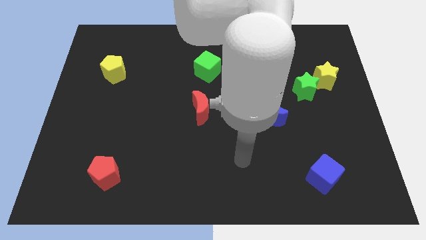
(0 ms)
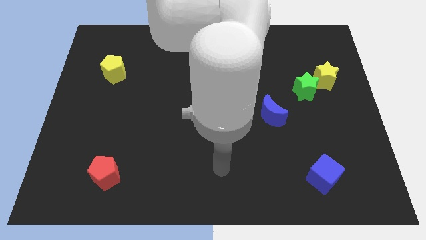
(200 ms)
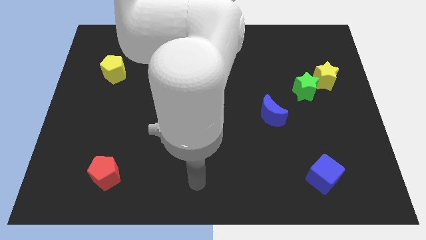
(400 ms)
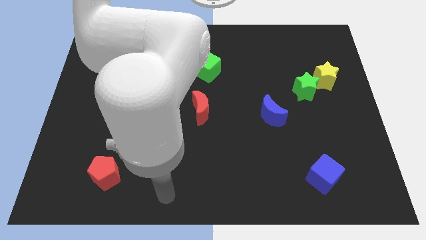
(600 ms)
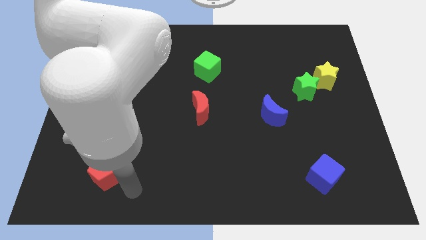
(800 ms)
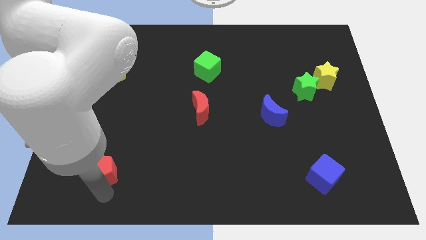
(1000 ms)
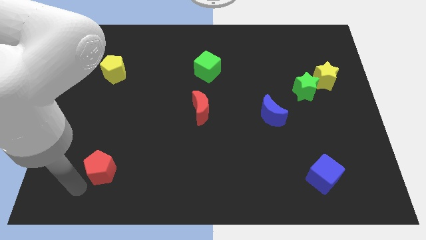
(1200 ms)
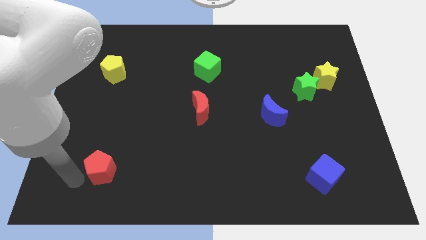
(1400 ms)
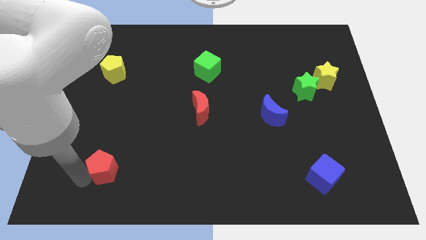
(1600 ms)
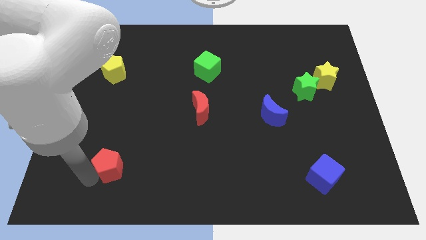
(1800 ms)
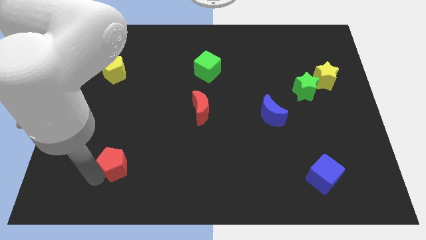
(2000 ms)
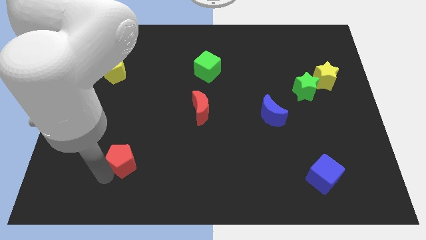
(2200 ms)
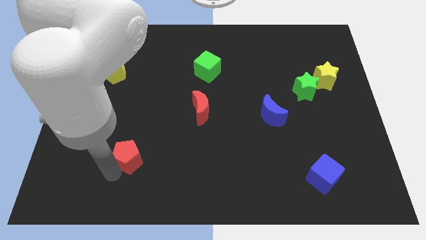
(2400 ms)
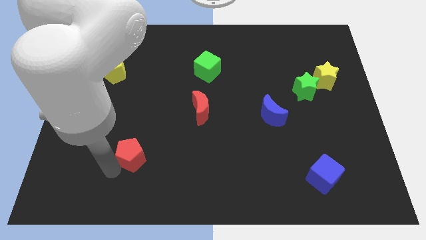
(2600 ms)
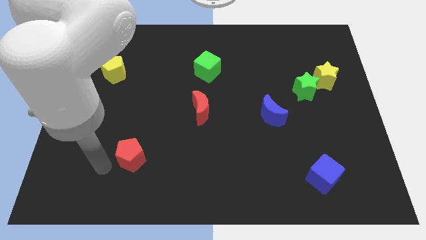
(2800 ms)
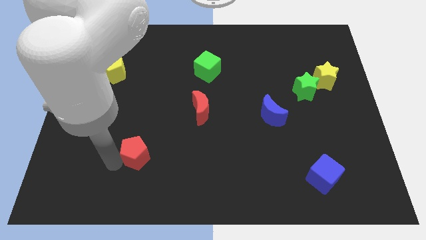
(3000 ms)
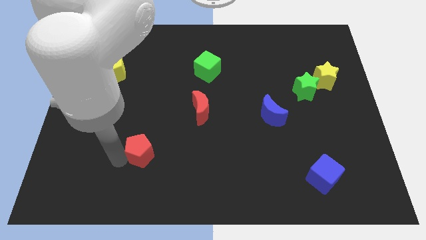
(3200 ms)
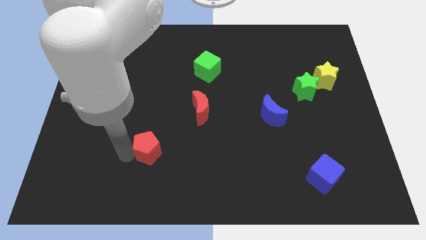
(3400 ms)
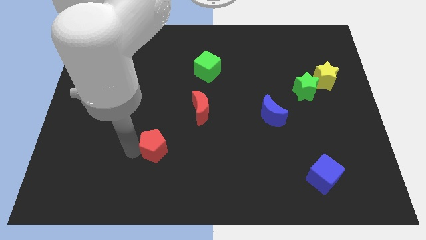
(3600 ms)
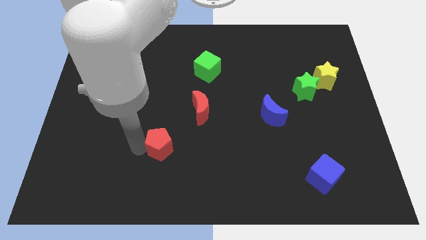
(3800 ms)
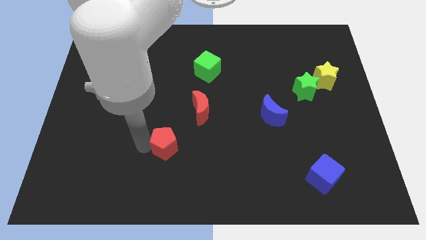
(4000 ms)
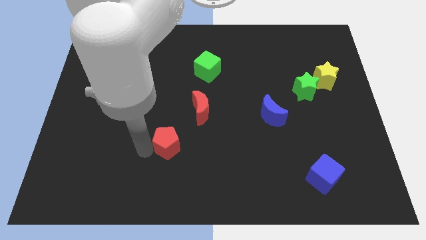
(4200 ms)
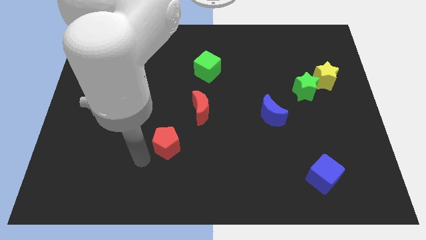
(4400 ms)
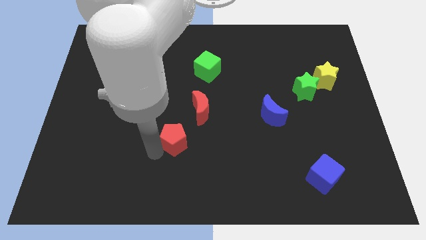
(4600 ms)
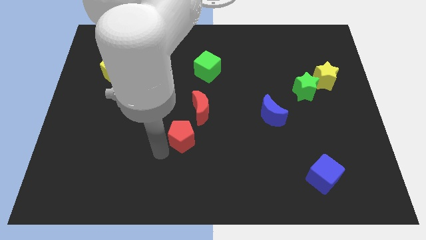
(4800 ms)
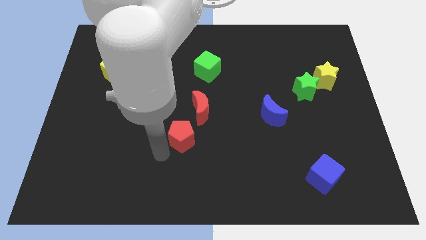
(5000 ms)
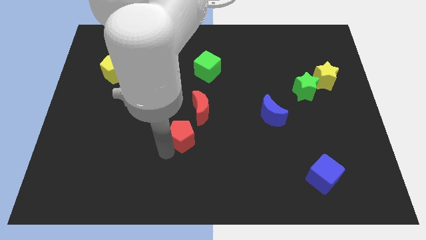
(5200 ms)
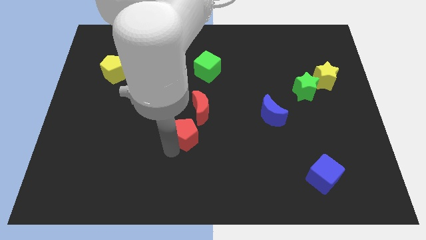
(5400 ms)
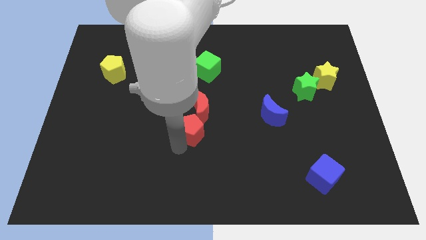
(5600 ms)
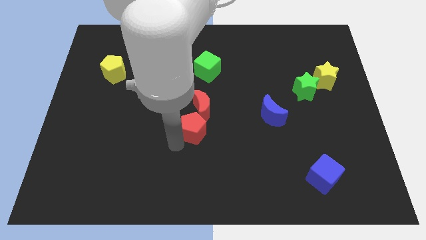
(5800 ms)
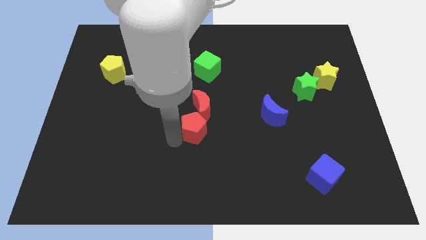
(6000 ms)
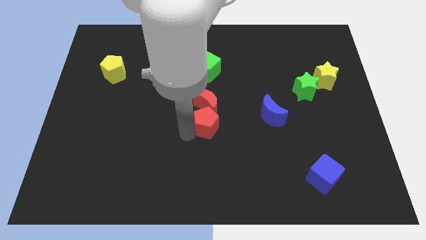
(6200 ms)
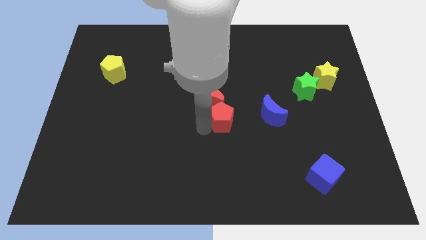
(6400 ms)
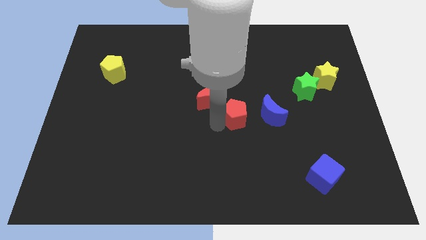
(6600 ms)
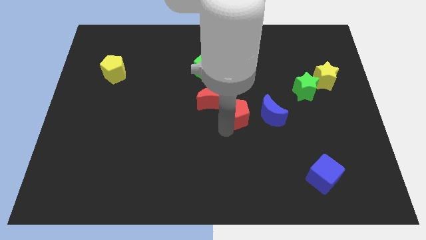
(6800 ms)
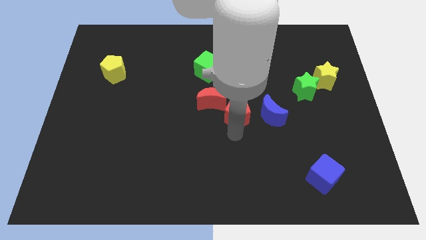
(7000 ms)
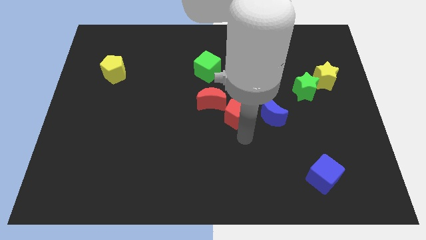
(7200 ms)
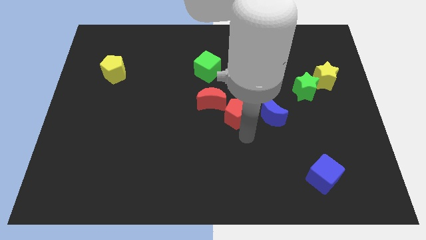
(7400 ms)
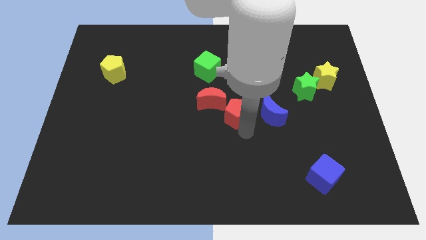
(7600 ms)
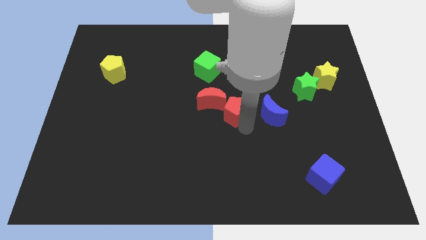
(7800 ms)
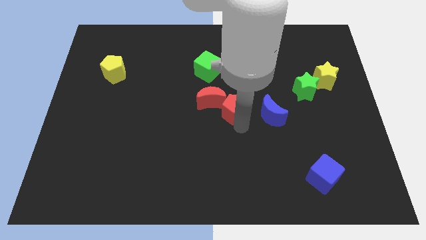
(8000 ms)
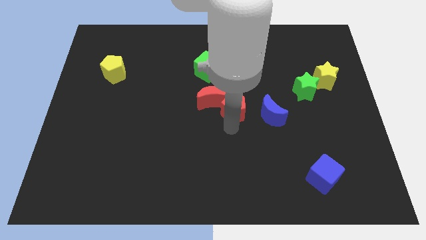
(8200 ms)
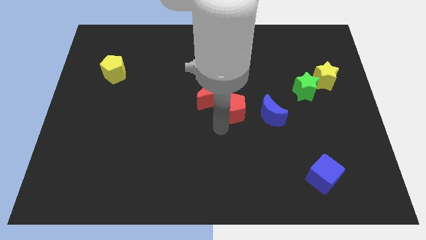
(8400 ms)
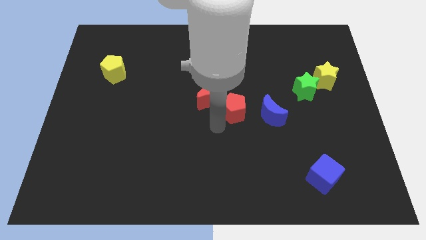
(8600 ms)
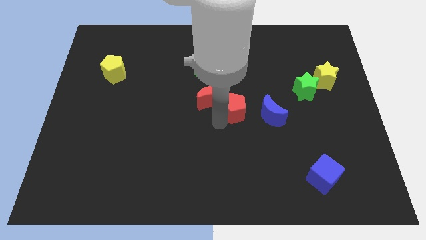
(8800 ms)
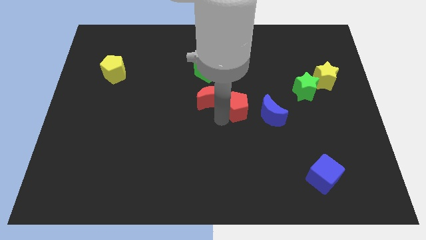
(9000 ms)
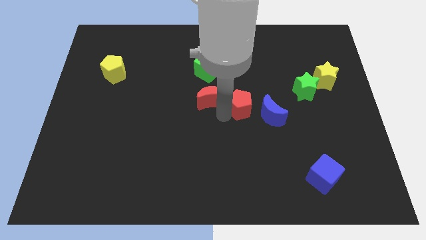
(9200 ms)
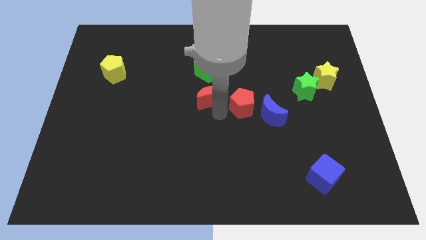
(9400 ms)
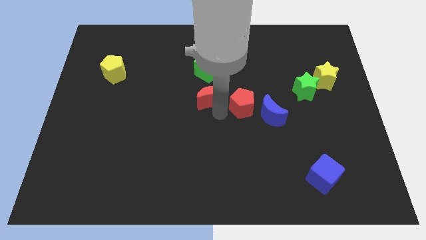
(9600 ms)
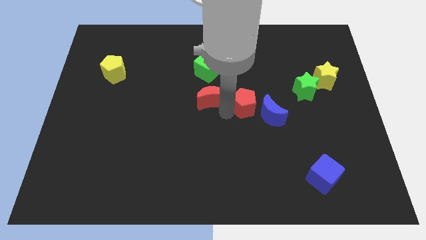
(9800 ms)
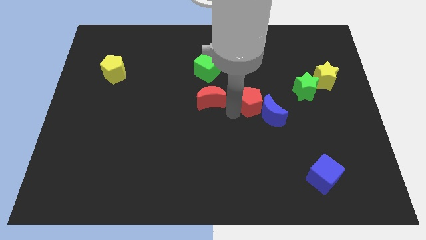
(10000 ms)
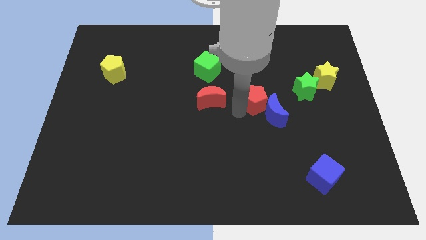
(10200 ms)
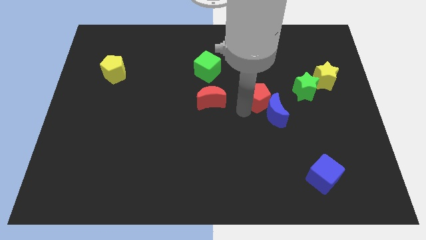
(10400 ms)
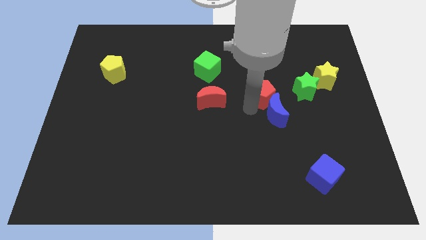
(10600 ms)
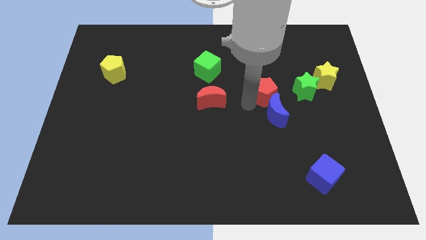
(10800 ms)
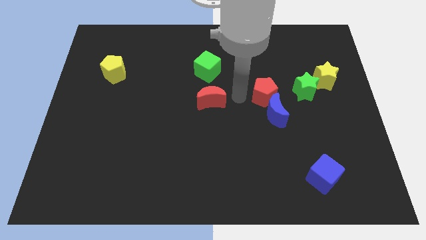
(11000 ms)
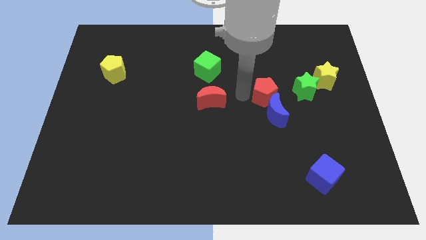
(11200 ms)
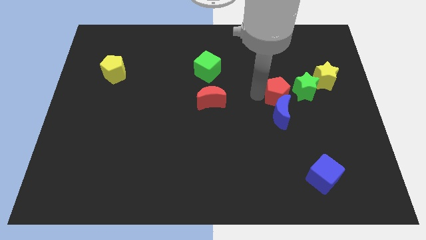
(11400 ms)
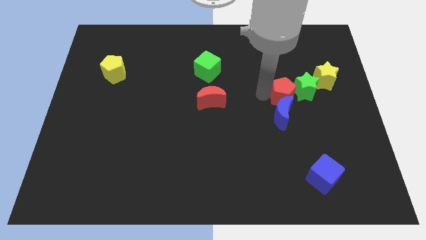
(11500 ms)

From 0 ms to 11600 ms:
push the red pentagon to the green star

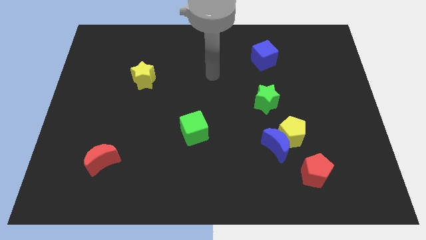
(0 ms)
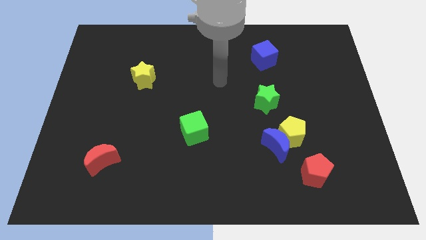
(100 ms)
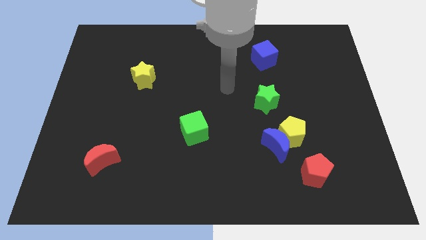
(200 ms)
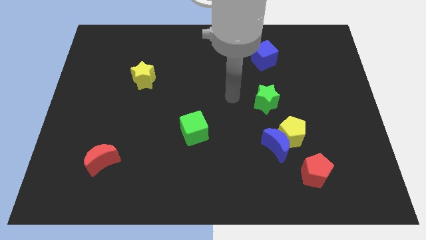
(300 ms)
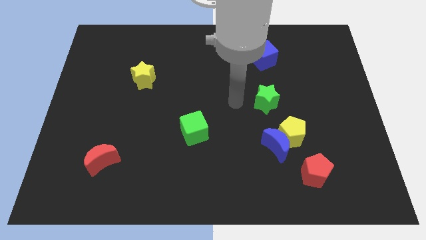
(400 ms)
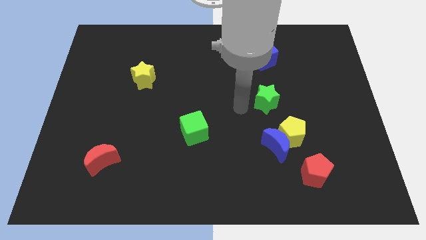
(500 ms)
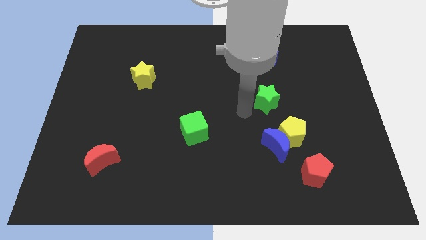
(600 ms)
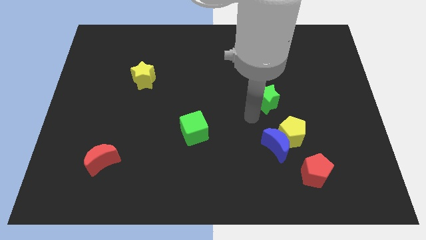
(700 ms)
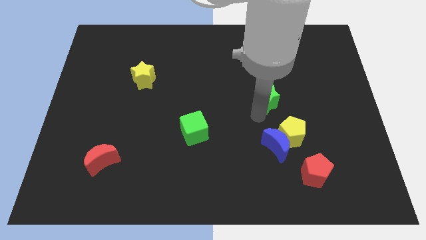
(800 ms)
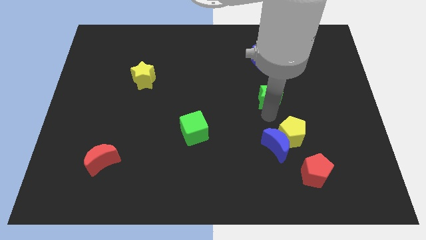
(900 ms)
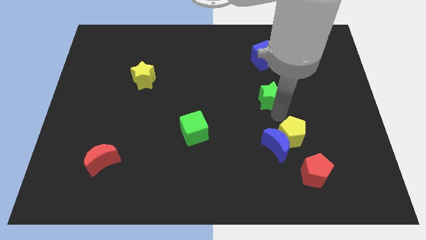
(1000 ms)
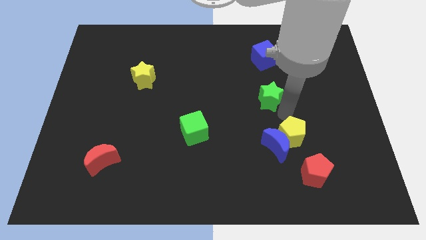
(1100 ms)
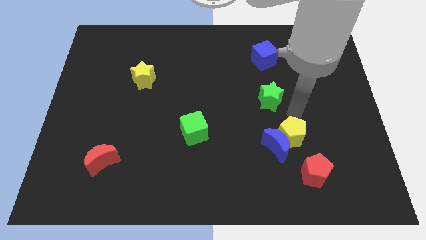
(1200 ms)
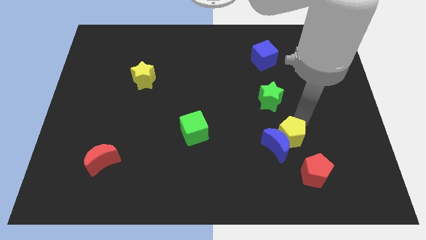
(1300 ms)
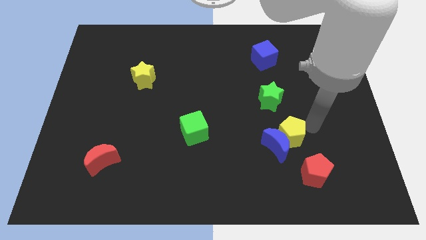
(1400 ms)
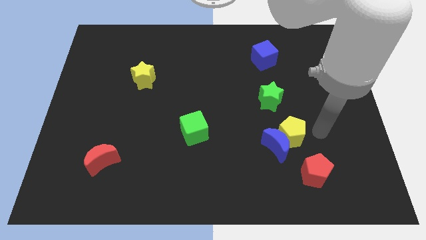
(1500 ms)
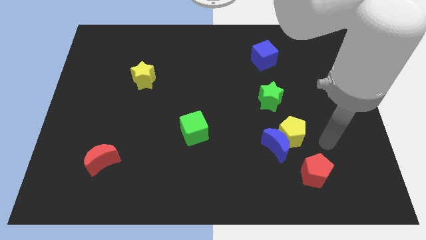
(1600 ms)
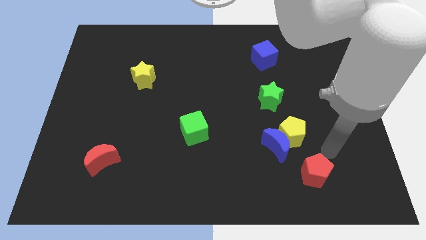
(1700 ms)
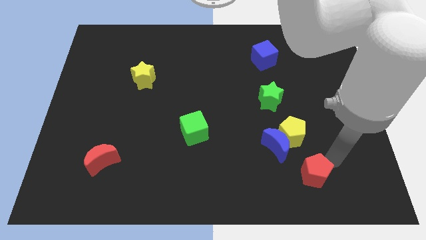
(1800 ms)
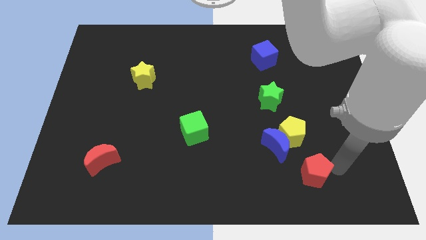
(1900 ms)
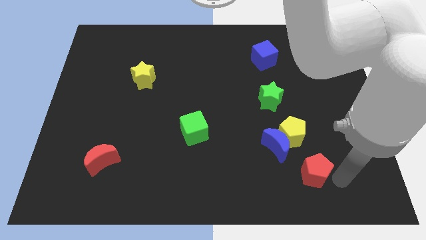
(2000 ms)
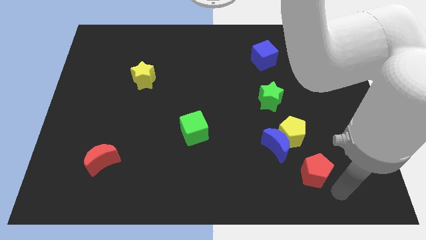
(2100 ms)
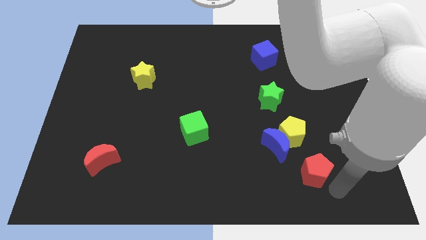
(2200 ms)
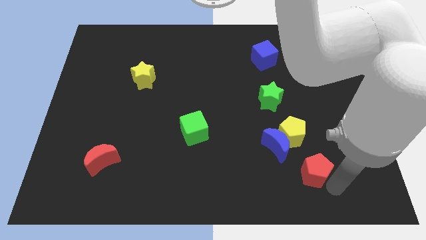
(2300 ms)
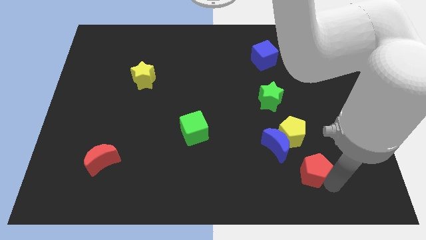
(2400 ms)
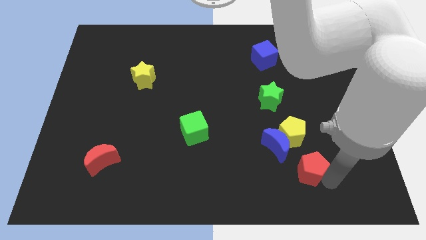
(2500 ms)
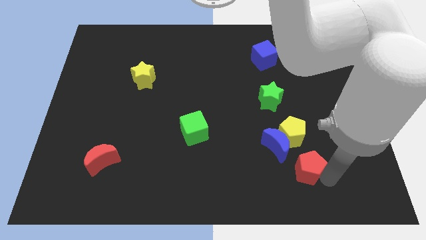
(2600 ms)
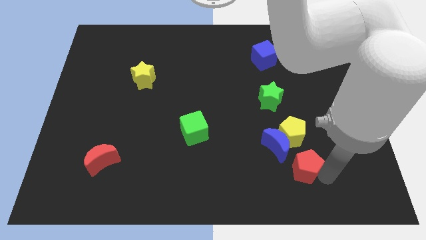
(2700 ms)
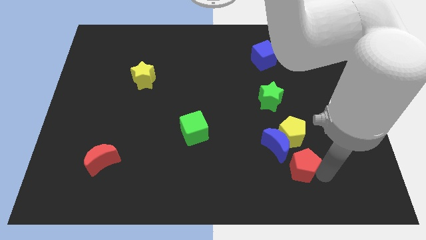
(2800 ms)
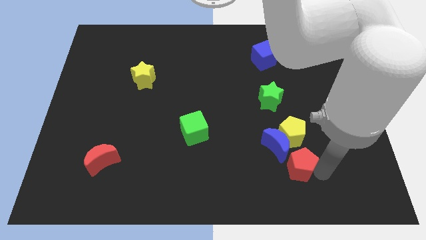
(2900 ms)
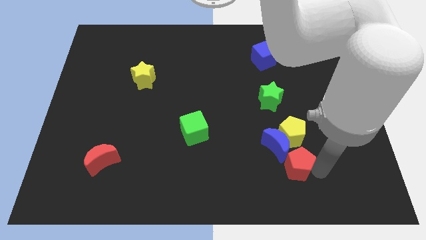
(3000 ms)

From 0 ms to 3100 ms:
slide the red pentagon next to the blue moon
